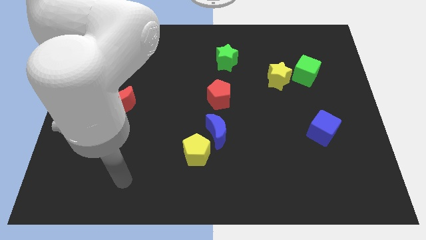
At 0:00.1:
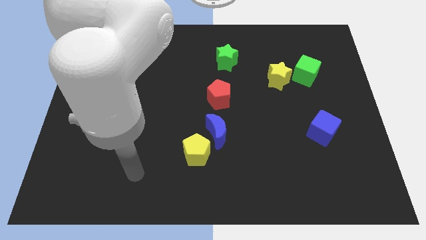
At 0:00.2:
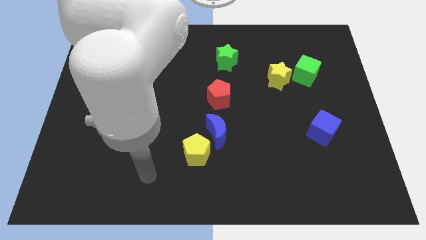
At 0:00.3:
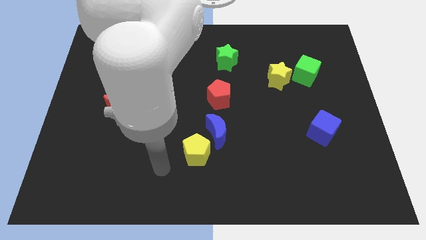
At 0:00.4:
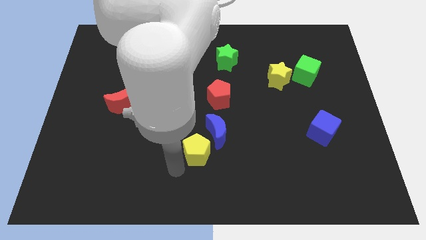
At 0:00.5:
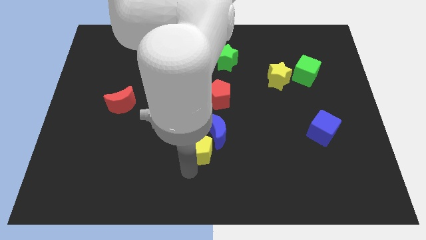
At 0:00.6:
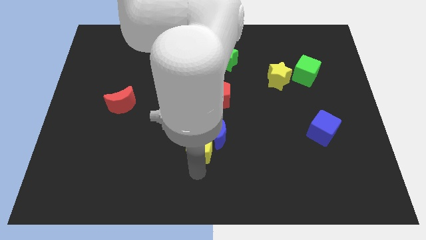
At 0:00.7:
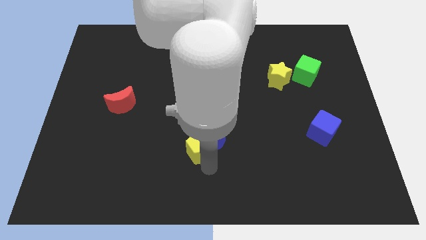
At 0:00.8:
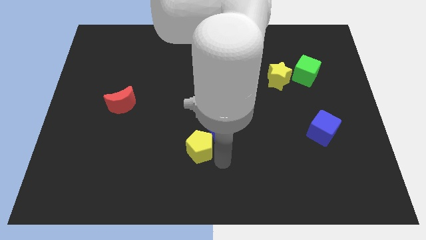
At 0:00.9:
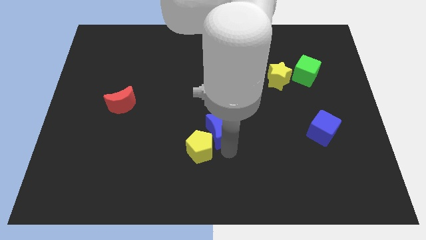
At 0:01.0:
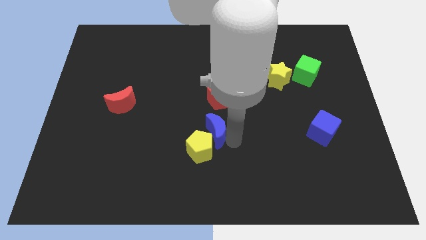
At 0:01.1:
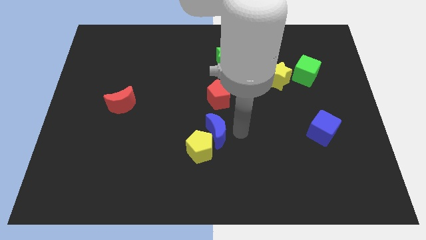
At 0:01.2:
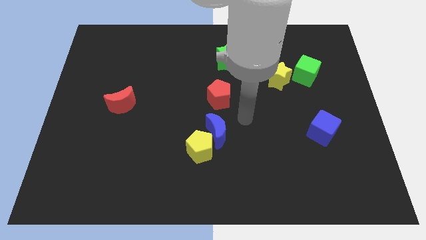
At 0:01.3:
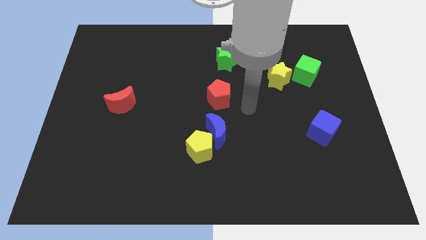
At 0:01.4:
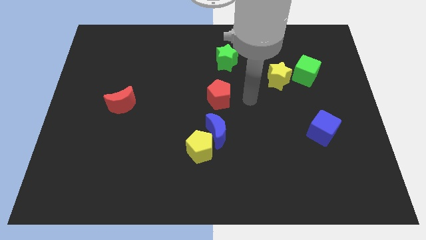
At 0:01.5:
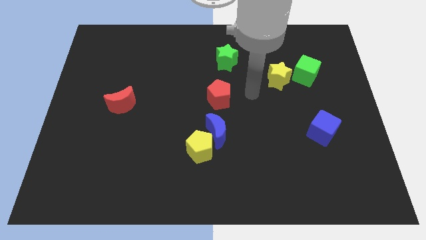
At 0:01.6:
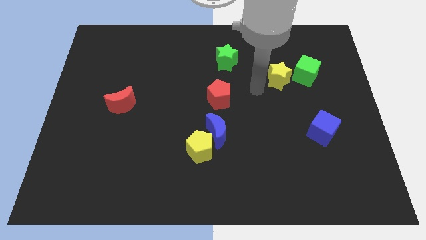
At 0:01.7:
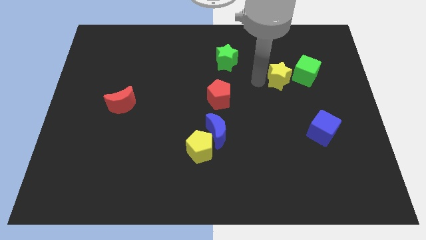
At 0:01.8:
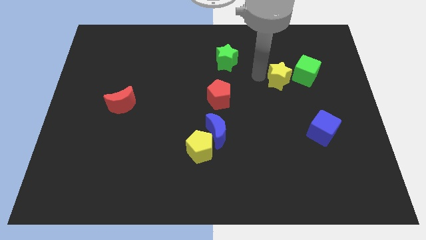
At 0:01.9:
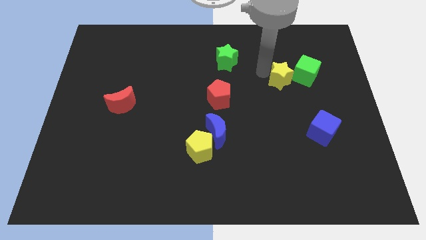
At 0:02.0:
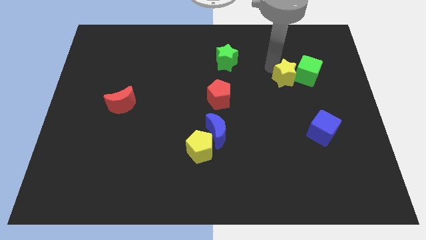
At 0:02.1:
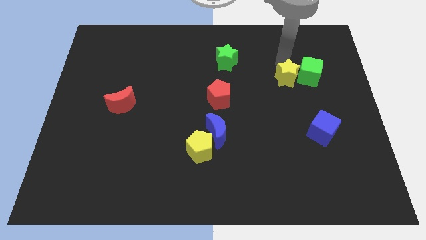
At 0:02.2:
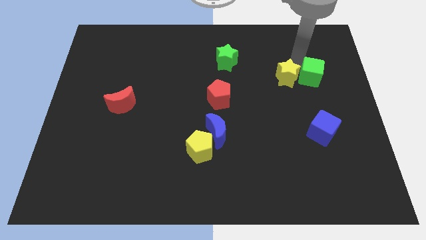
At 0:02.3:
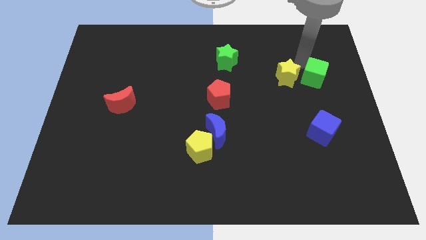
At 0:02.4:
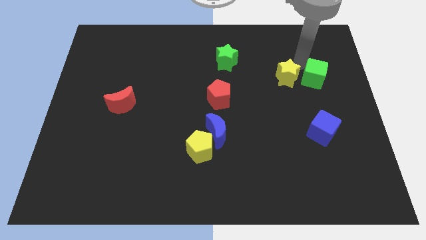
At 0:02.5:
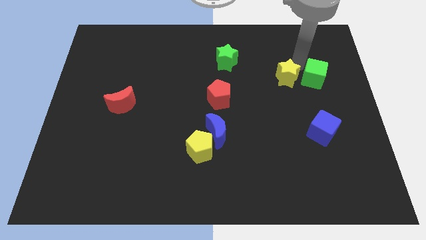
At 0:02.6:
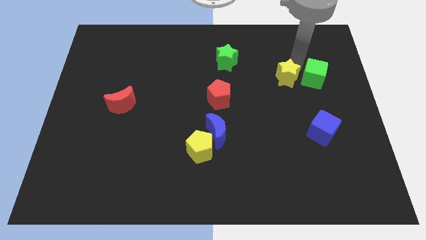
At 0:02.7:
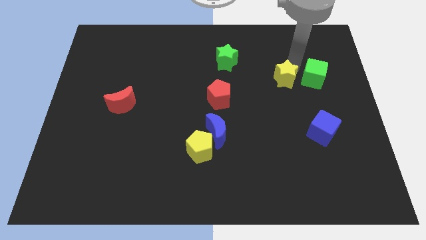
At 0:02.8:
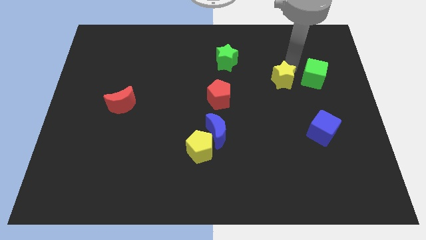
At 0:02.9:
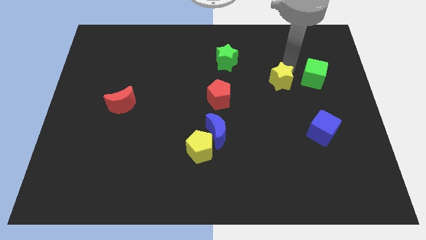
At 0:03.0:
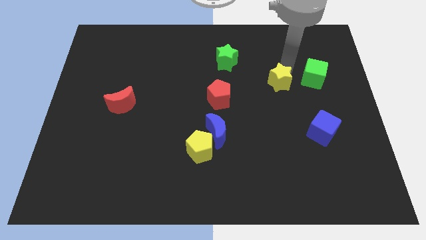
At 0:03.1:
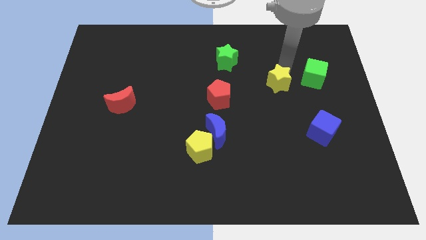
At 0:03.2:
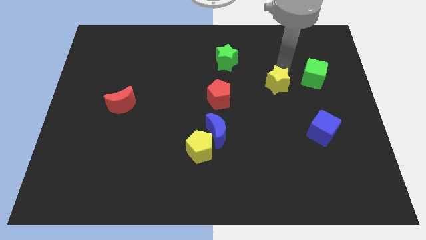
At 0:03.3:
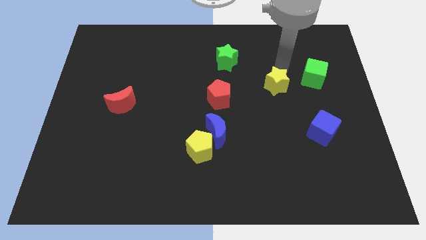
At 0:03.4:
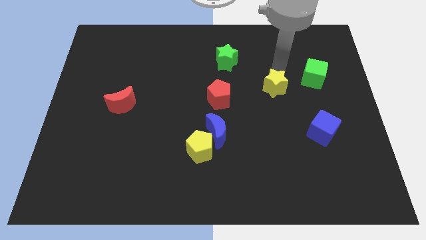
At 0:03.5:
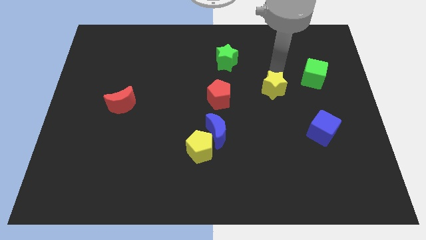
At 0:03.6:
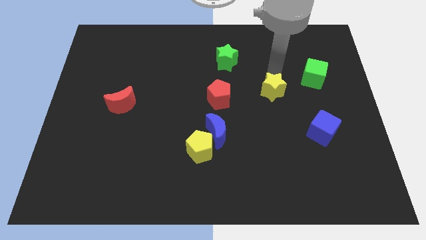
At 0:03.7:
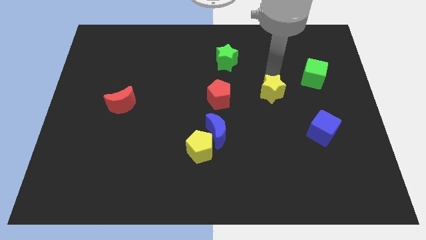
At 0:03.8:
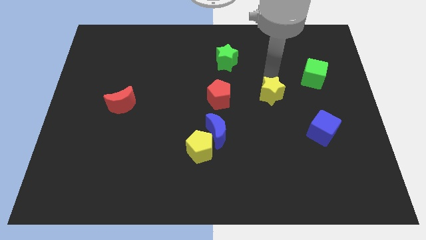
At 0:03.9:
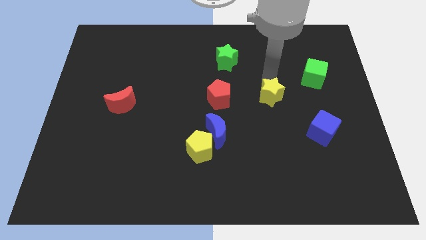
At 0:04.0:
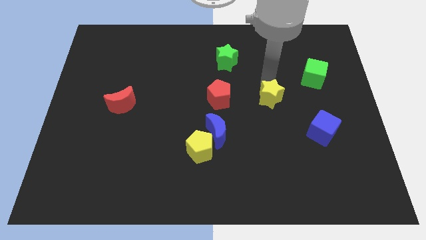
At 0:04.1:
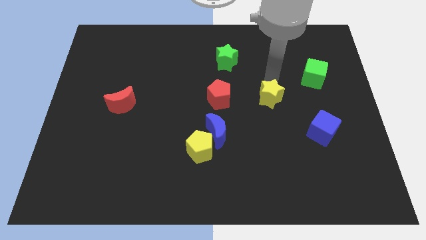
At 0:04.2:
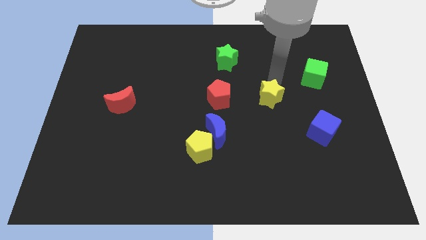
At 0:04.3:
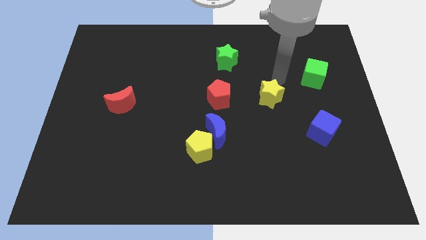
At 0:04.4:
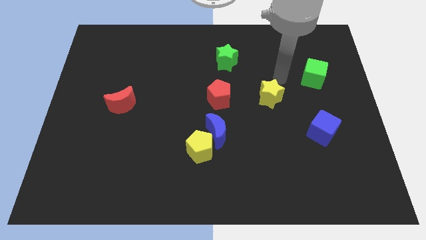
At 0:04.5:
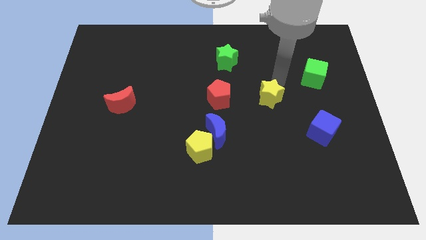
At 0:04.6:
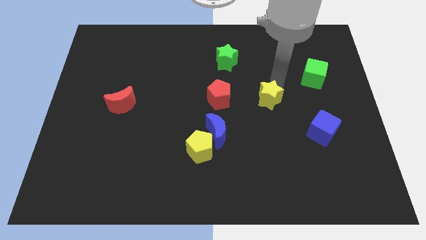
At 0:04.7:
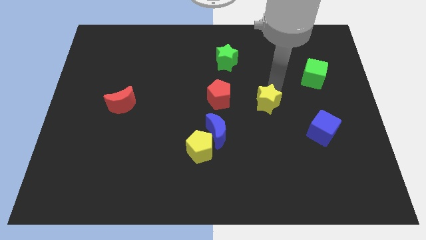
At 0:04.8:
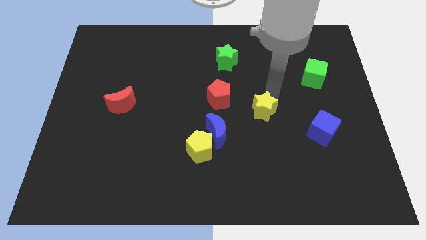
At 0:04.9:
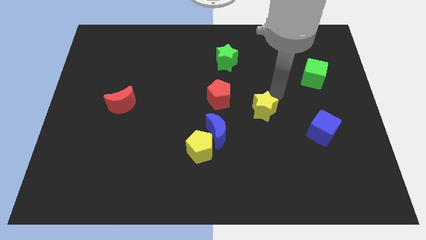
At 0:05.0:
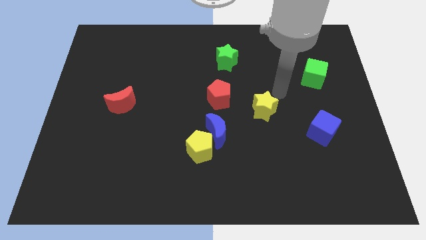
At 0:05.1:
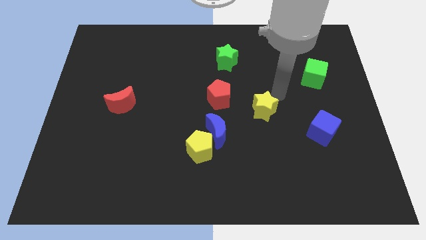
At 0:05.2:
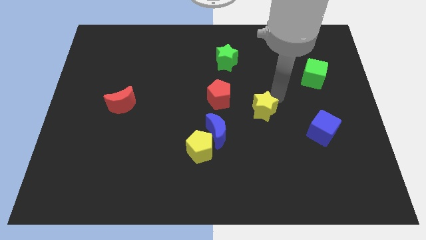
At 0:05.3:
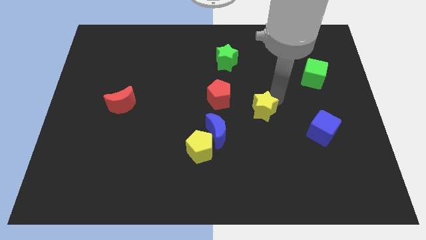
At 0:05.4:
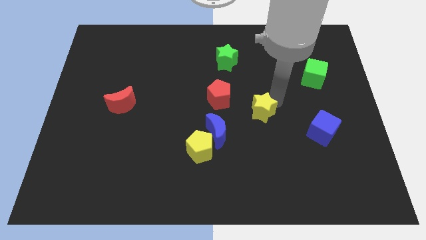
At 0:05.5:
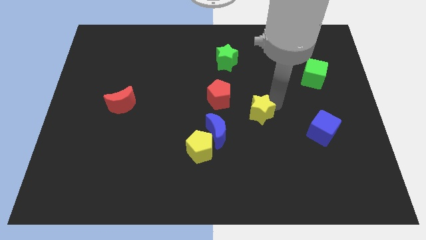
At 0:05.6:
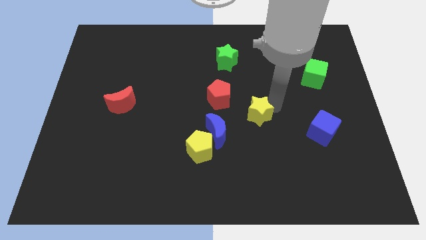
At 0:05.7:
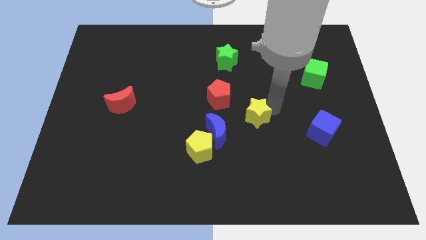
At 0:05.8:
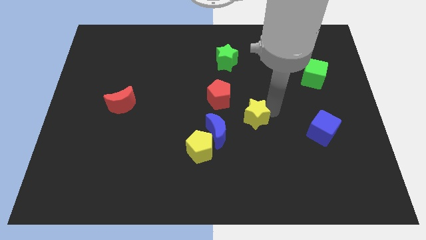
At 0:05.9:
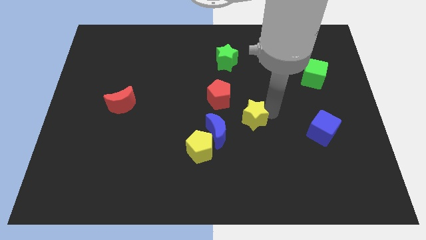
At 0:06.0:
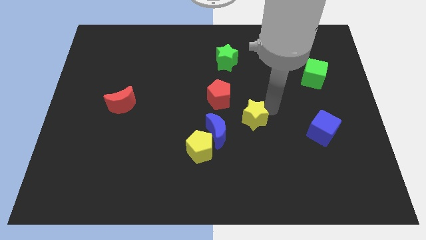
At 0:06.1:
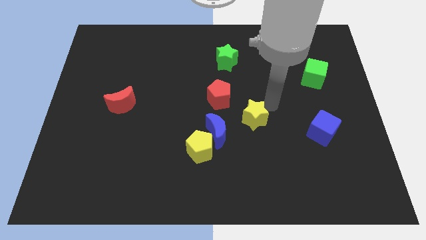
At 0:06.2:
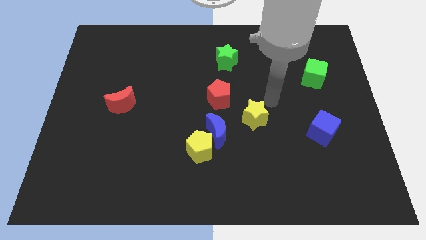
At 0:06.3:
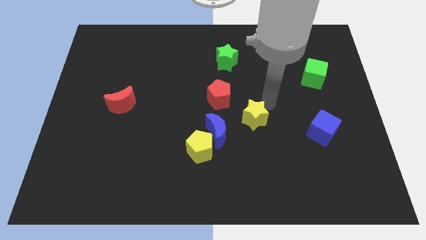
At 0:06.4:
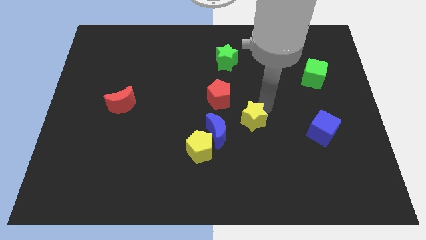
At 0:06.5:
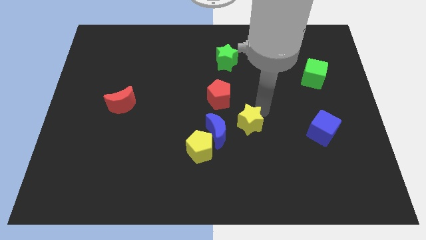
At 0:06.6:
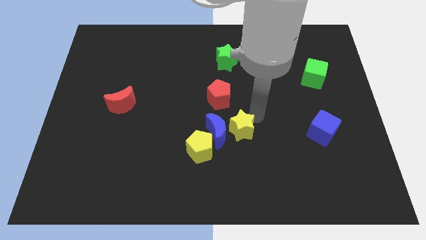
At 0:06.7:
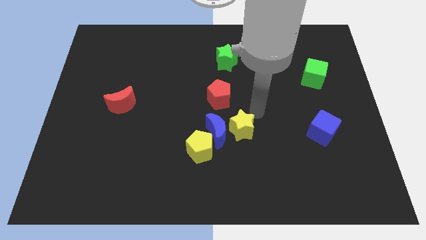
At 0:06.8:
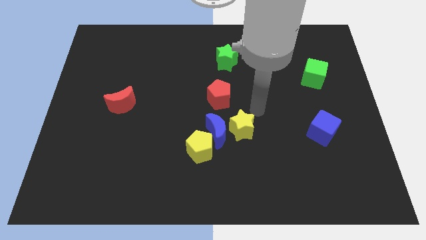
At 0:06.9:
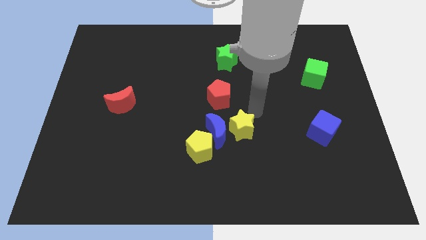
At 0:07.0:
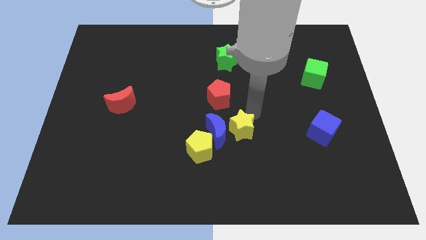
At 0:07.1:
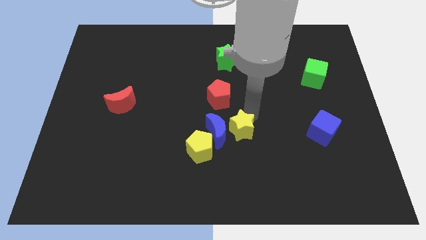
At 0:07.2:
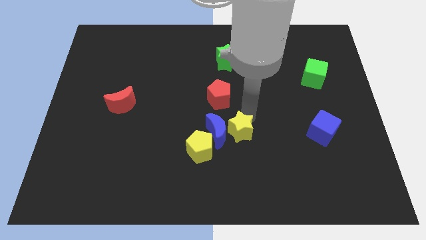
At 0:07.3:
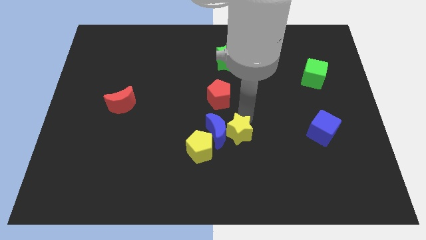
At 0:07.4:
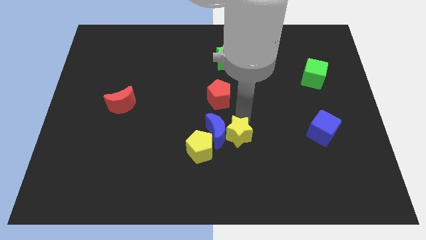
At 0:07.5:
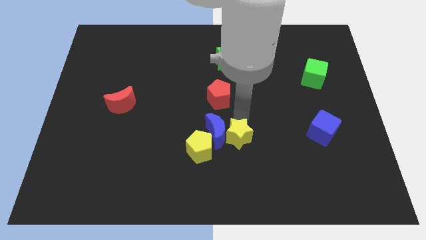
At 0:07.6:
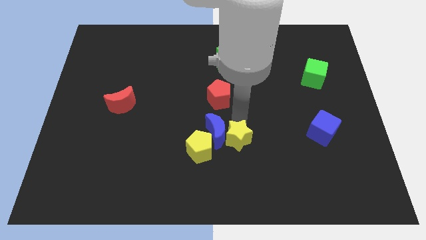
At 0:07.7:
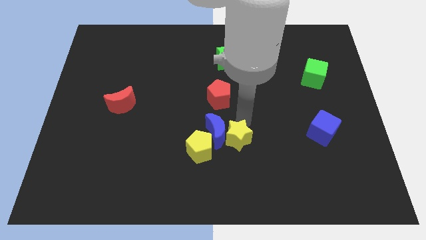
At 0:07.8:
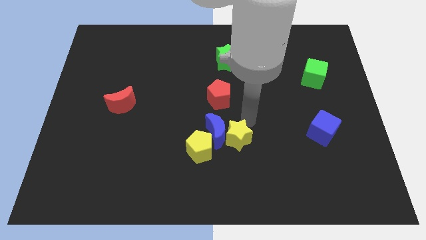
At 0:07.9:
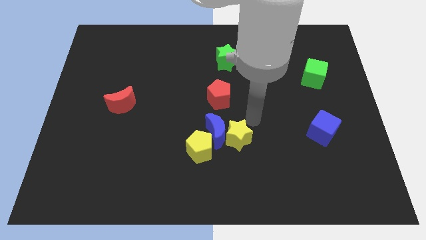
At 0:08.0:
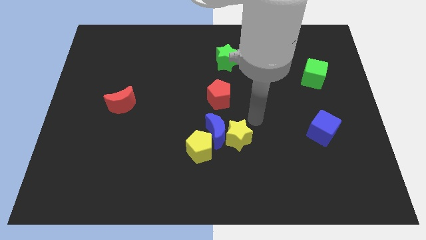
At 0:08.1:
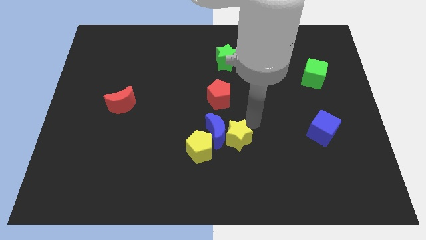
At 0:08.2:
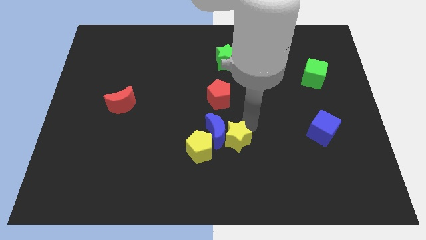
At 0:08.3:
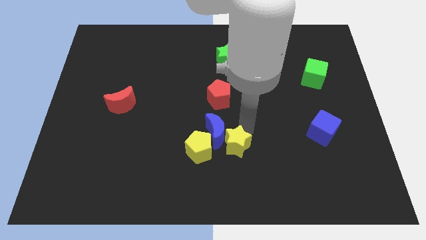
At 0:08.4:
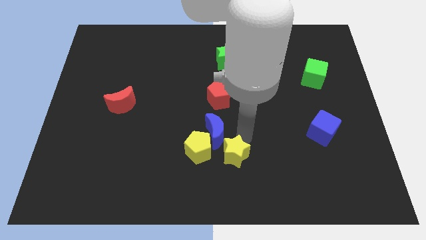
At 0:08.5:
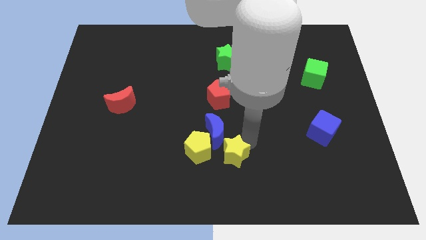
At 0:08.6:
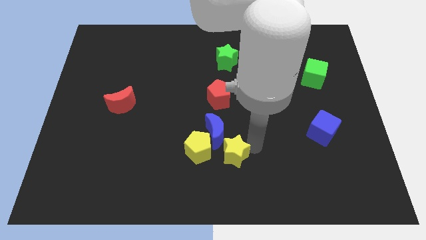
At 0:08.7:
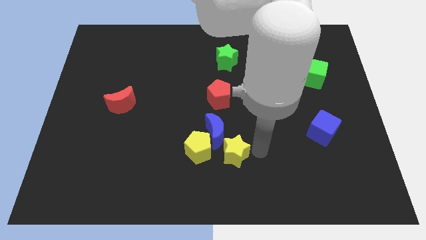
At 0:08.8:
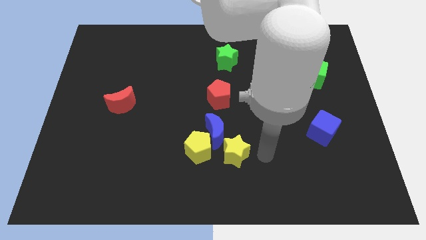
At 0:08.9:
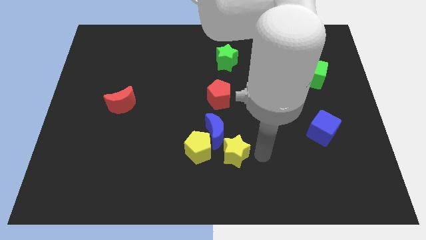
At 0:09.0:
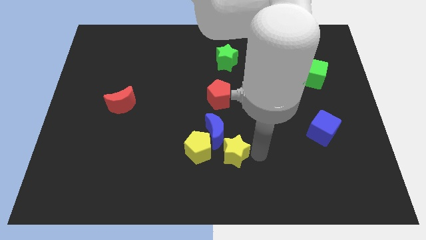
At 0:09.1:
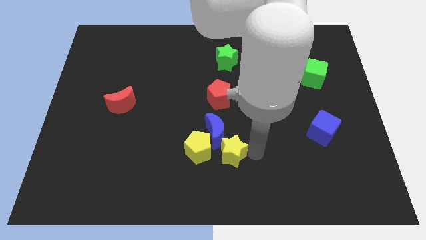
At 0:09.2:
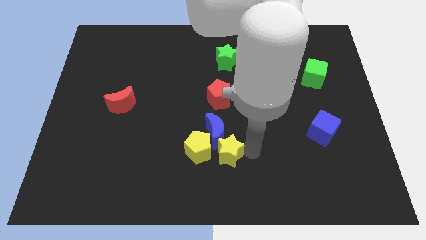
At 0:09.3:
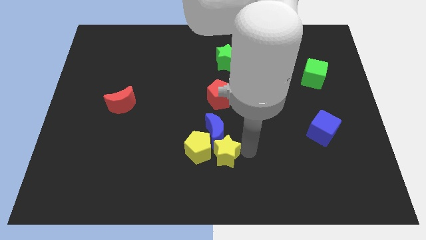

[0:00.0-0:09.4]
put the yellow star next to the yellow pentagon
